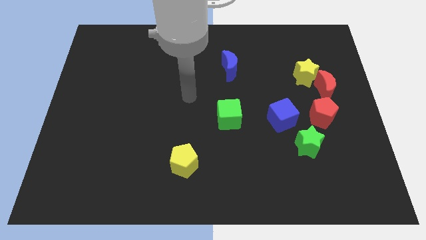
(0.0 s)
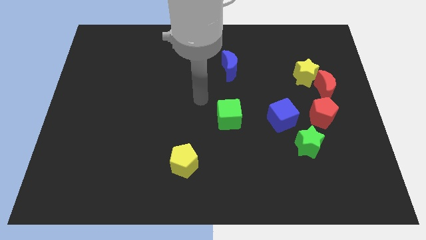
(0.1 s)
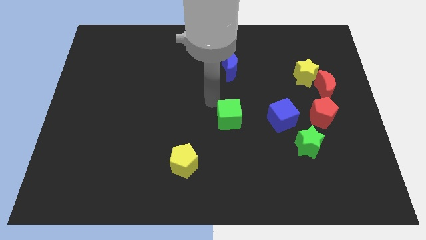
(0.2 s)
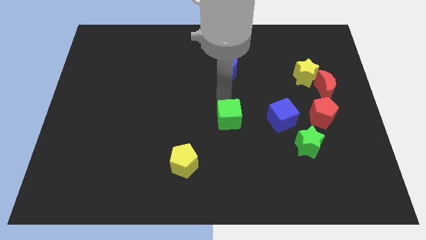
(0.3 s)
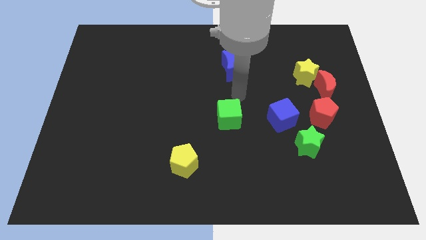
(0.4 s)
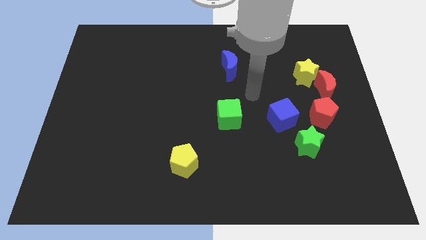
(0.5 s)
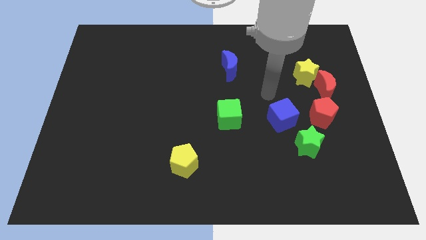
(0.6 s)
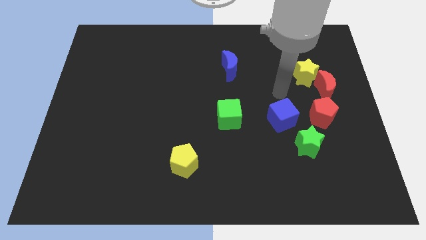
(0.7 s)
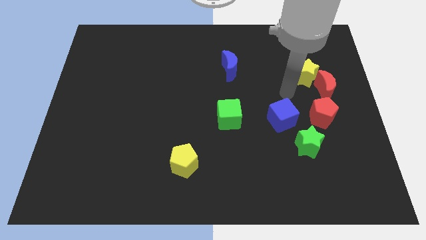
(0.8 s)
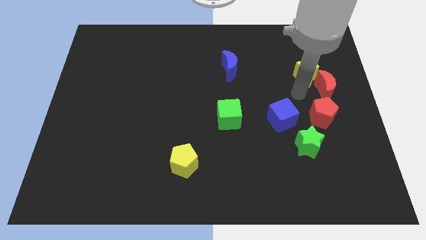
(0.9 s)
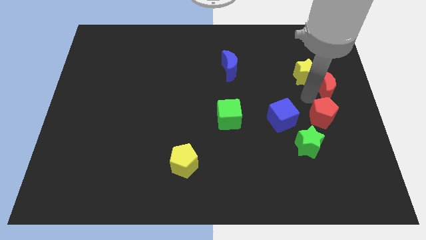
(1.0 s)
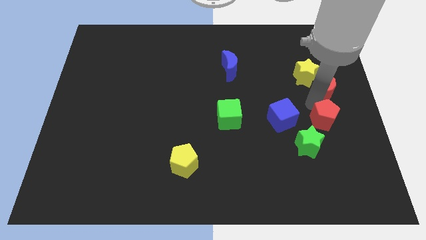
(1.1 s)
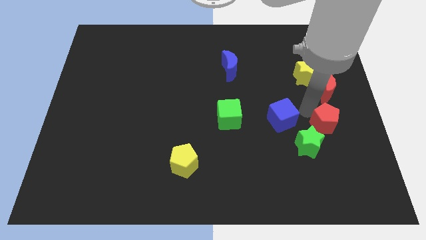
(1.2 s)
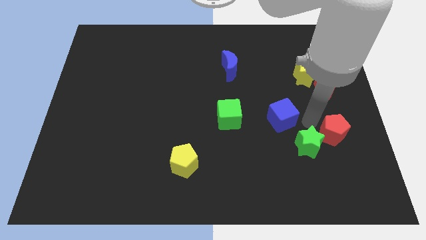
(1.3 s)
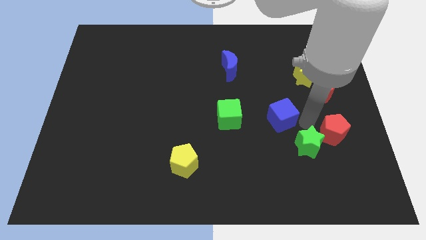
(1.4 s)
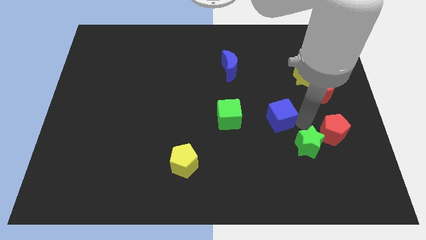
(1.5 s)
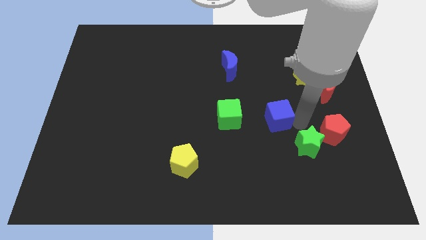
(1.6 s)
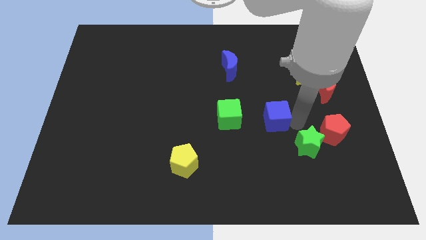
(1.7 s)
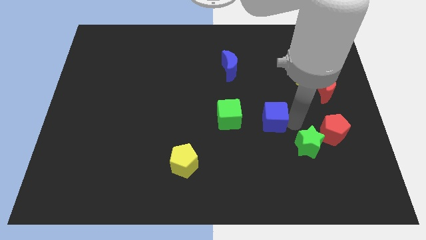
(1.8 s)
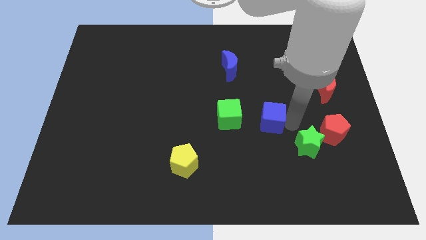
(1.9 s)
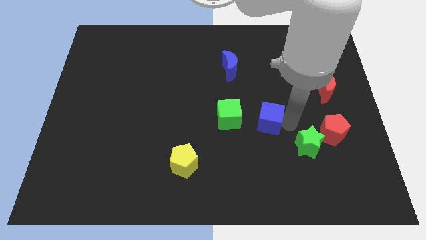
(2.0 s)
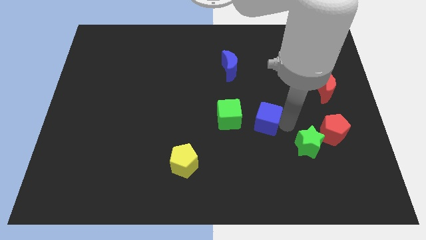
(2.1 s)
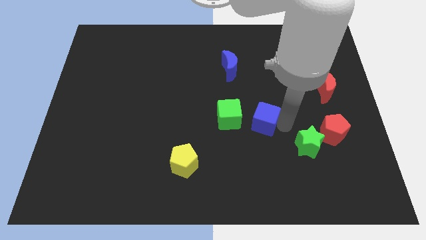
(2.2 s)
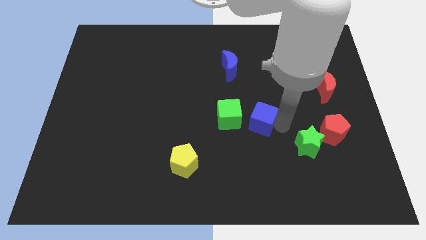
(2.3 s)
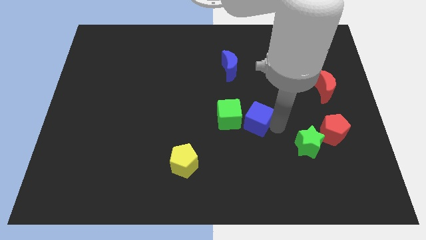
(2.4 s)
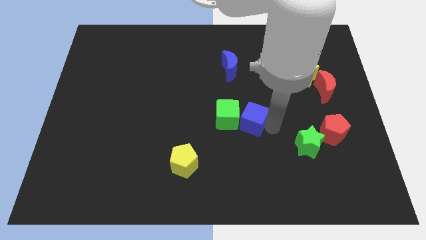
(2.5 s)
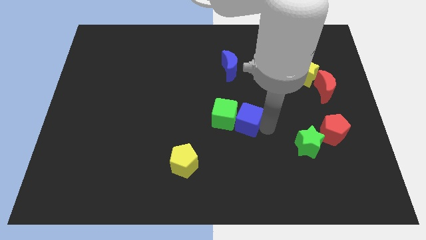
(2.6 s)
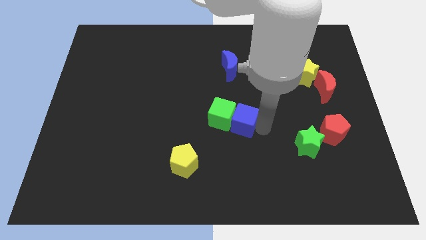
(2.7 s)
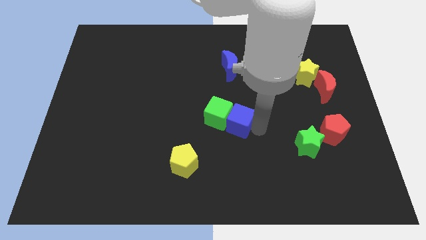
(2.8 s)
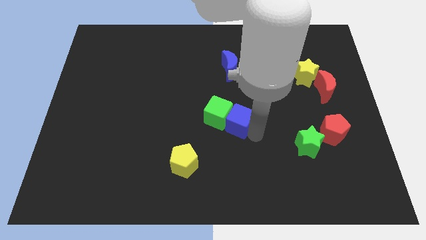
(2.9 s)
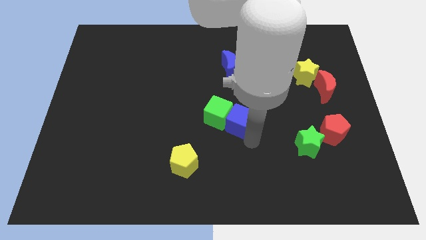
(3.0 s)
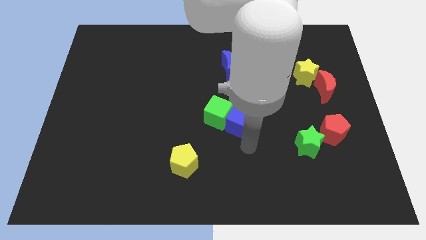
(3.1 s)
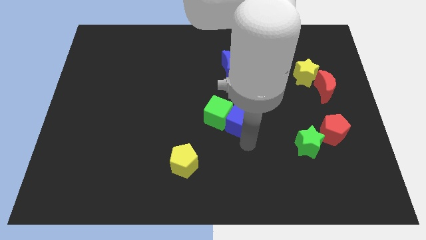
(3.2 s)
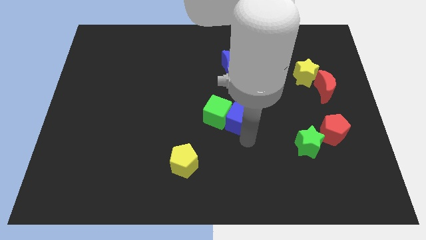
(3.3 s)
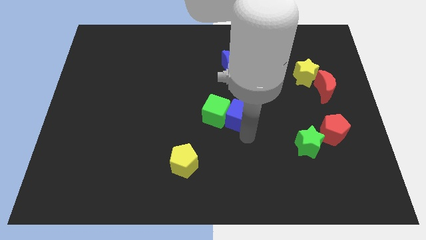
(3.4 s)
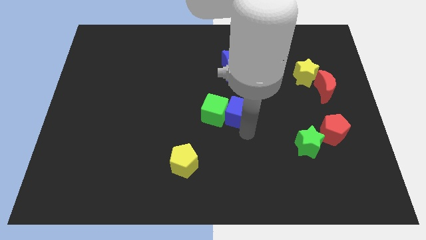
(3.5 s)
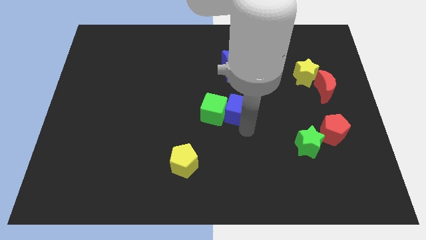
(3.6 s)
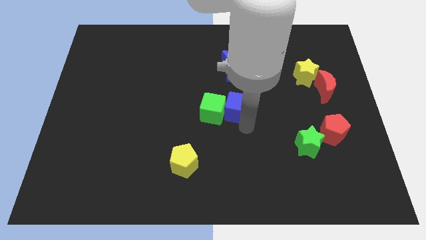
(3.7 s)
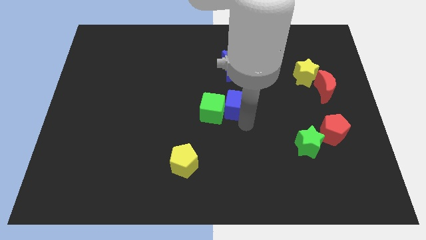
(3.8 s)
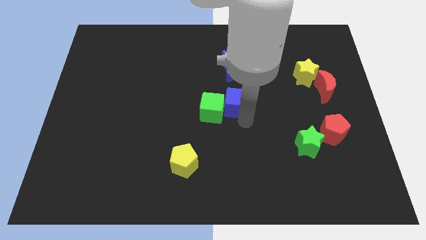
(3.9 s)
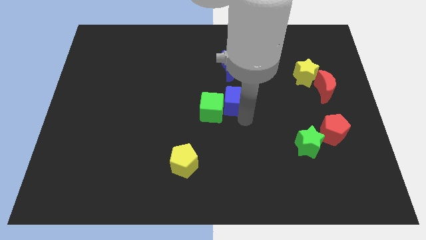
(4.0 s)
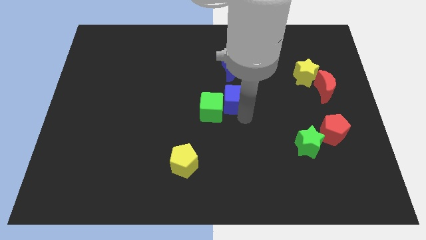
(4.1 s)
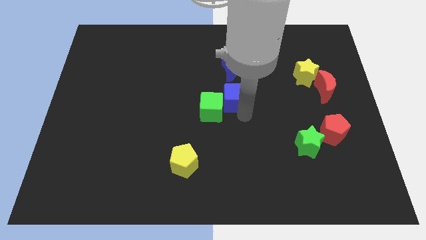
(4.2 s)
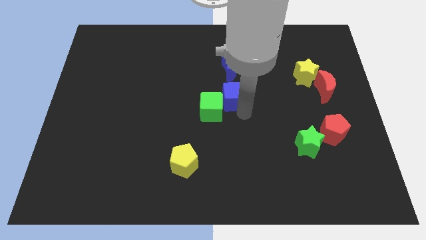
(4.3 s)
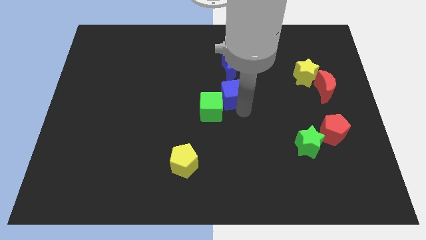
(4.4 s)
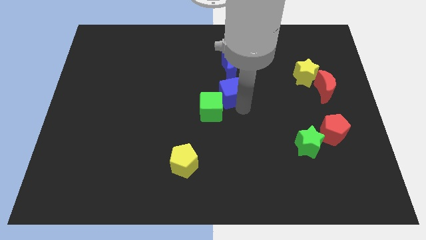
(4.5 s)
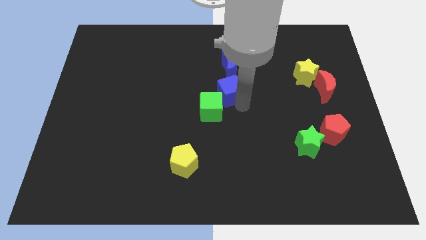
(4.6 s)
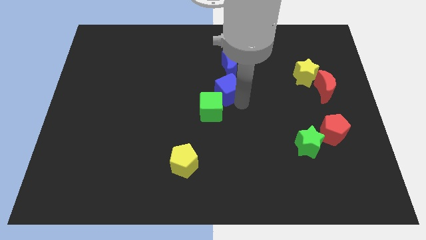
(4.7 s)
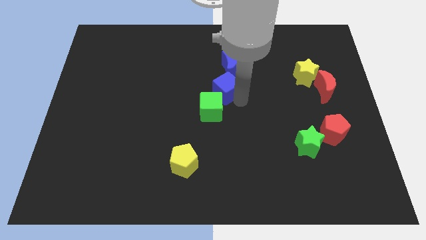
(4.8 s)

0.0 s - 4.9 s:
put the blue cube to the bottom left side of the blue moon

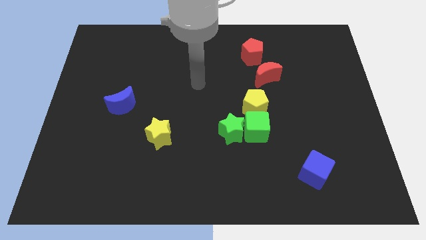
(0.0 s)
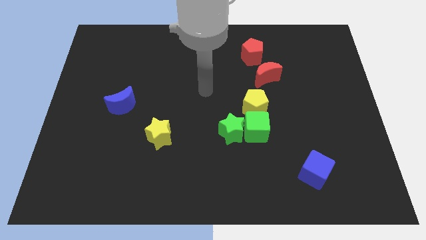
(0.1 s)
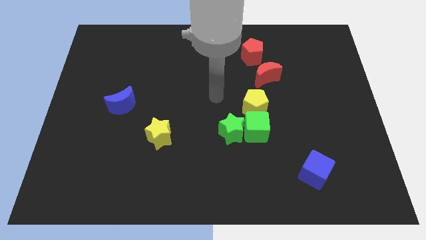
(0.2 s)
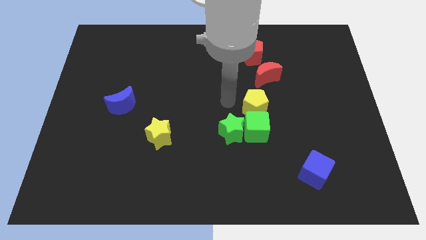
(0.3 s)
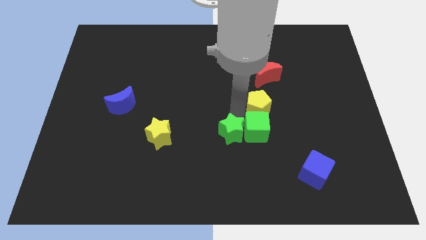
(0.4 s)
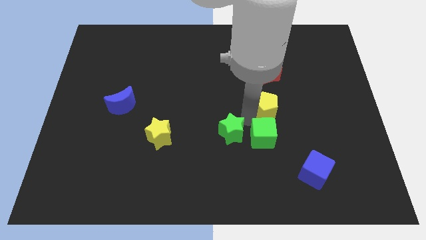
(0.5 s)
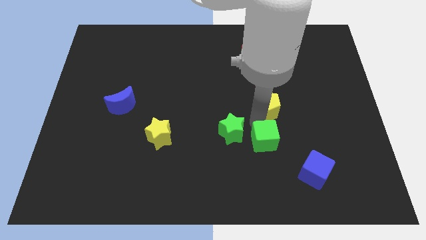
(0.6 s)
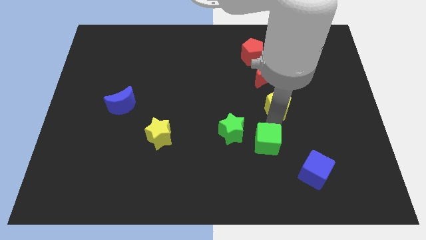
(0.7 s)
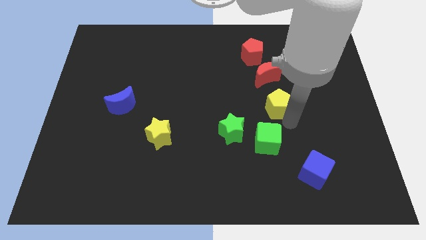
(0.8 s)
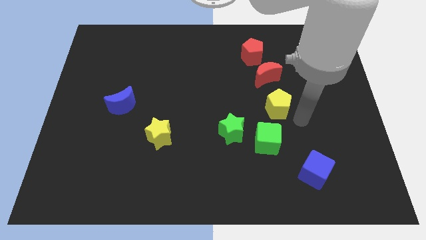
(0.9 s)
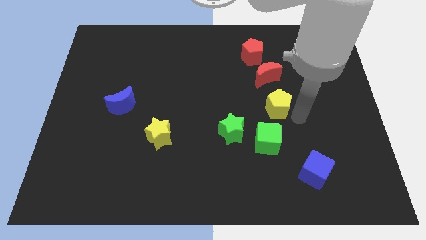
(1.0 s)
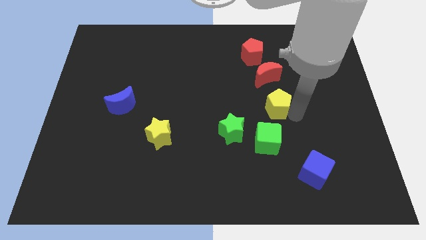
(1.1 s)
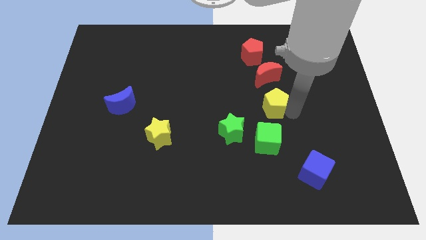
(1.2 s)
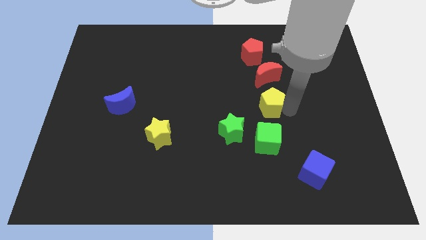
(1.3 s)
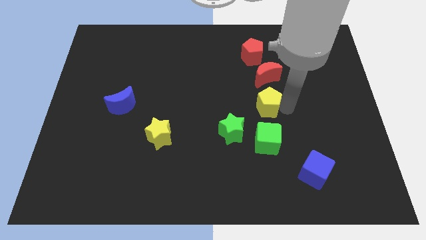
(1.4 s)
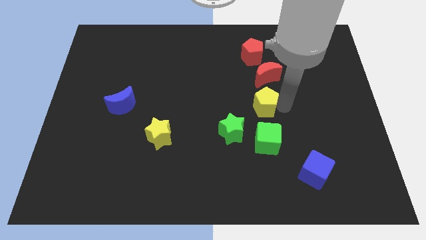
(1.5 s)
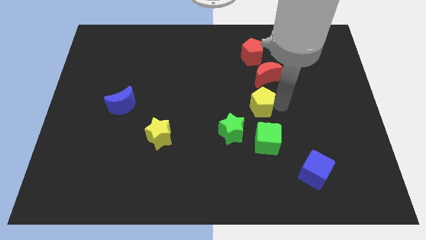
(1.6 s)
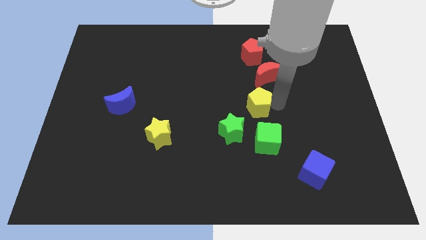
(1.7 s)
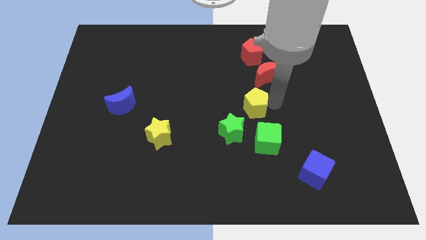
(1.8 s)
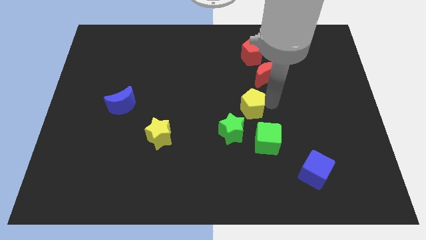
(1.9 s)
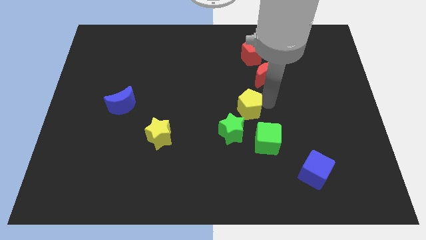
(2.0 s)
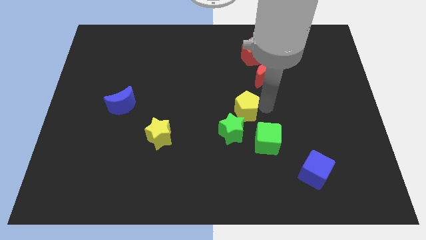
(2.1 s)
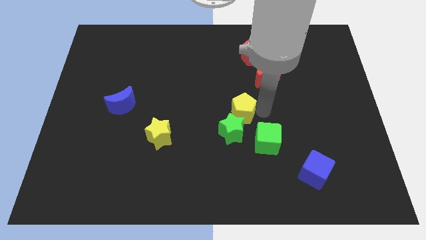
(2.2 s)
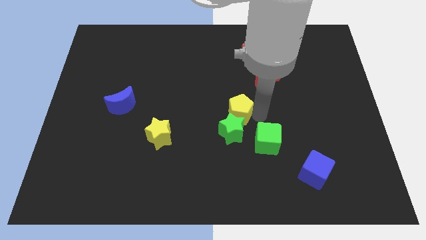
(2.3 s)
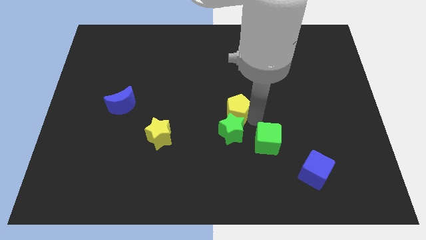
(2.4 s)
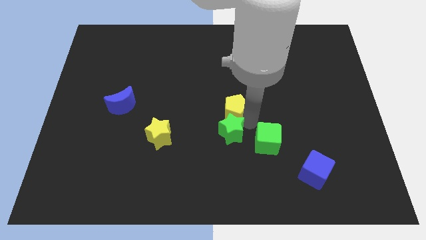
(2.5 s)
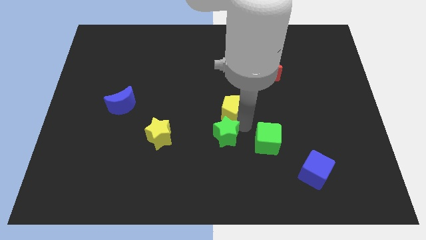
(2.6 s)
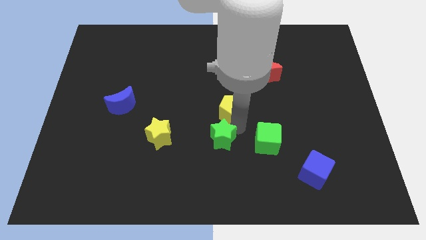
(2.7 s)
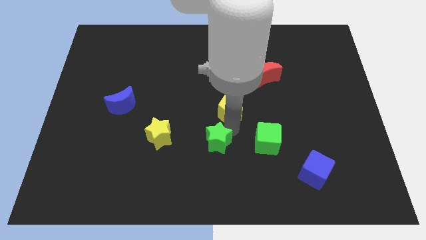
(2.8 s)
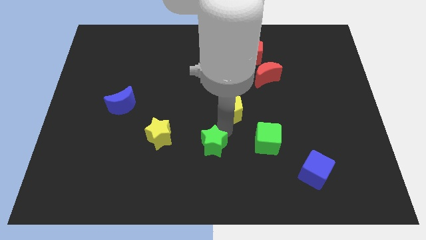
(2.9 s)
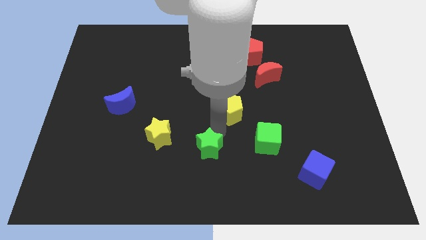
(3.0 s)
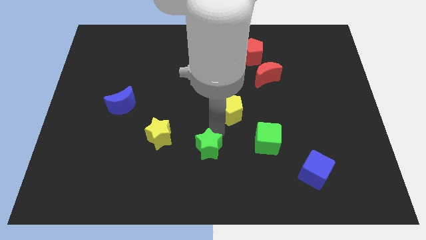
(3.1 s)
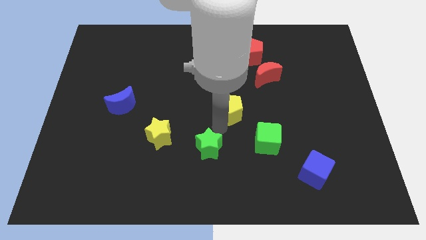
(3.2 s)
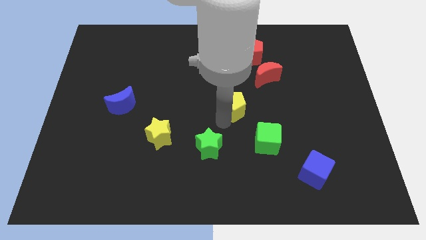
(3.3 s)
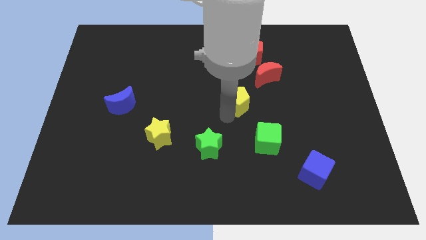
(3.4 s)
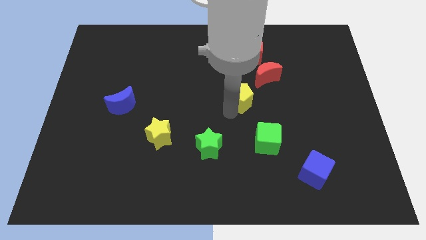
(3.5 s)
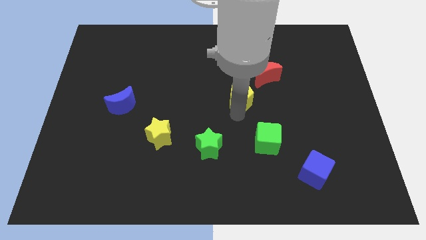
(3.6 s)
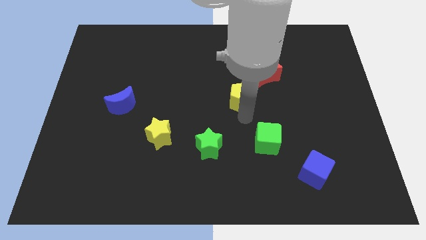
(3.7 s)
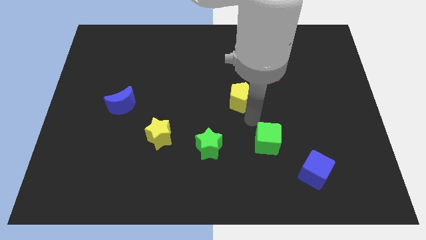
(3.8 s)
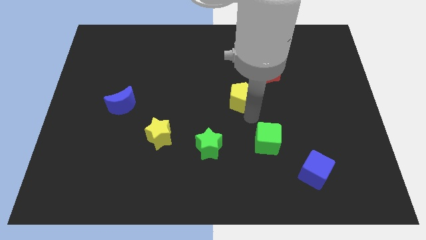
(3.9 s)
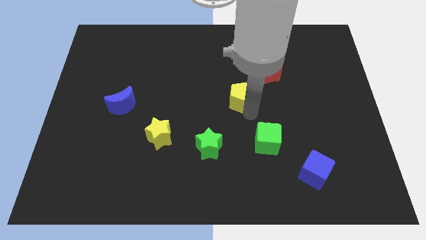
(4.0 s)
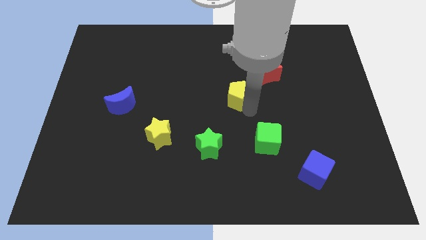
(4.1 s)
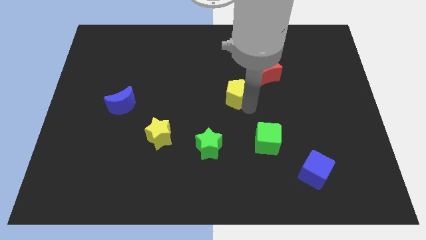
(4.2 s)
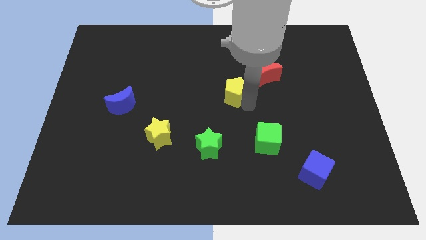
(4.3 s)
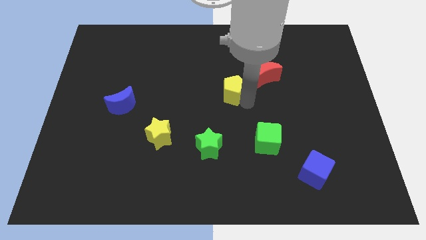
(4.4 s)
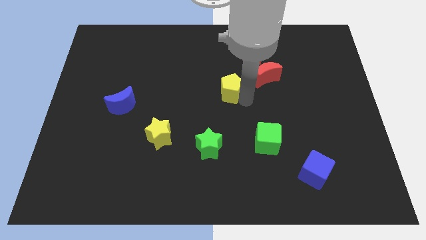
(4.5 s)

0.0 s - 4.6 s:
move the yellow pentagon to the left side of the red moon
